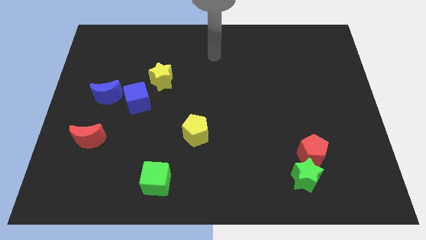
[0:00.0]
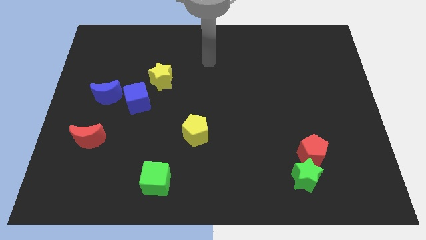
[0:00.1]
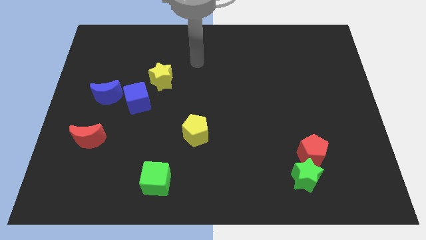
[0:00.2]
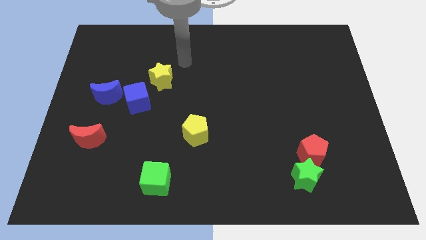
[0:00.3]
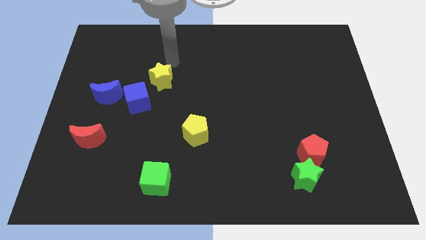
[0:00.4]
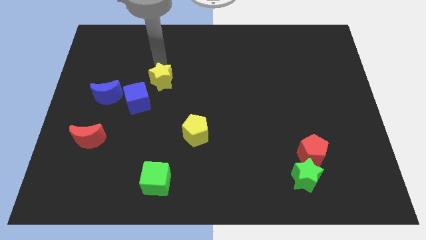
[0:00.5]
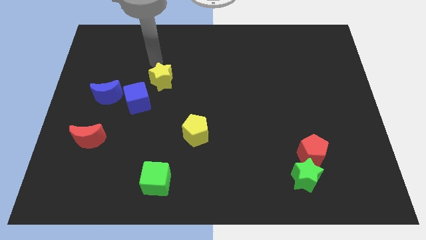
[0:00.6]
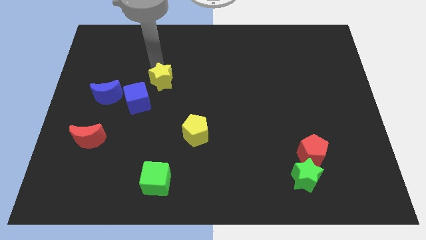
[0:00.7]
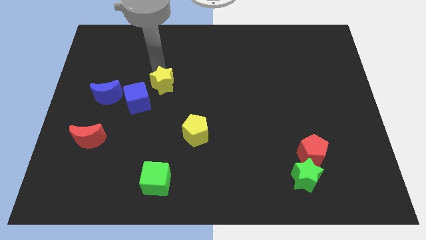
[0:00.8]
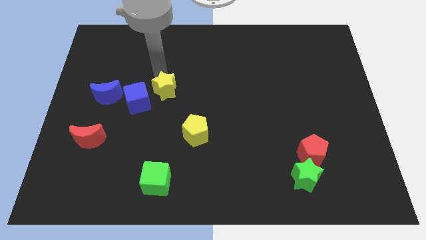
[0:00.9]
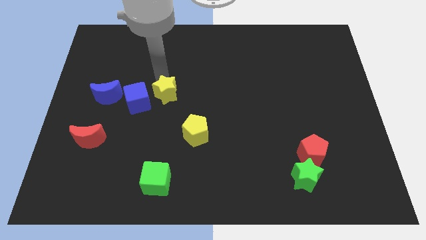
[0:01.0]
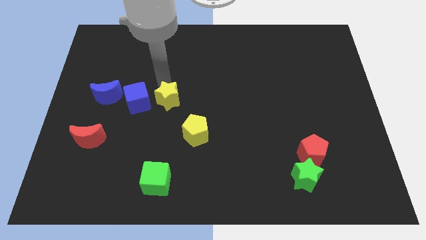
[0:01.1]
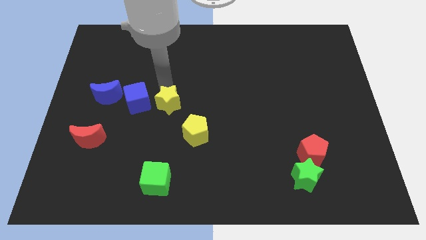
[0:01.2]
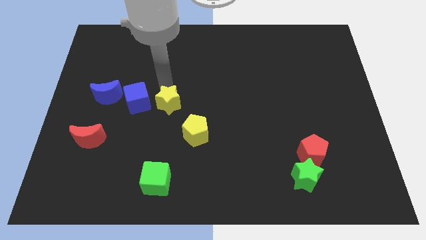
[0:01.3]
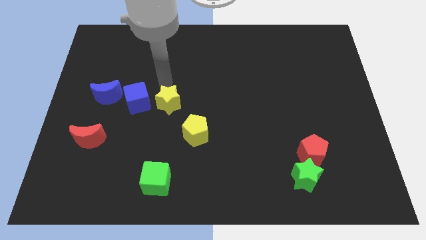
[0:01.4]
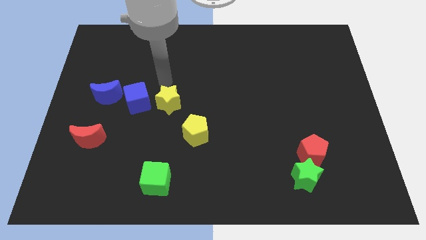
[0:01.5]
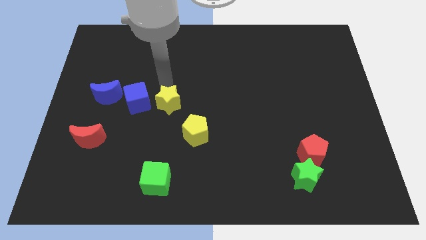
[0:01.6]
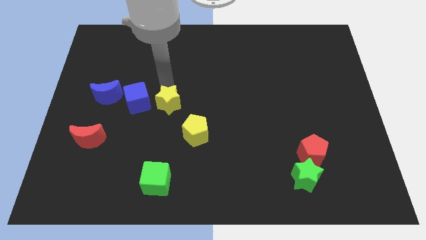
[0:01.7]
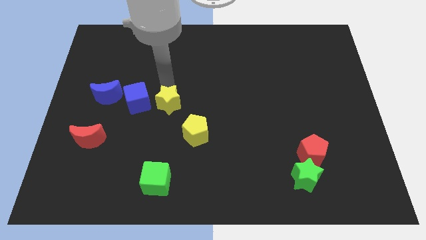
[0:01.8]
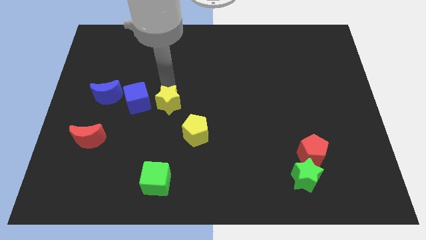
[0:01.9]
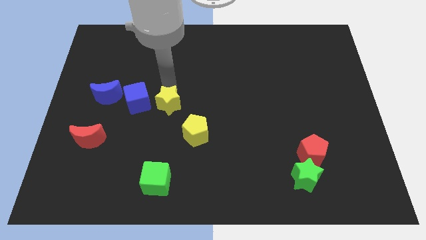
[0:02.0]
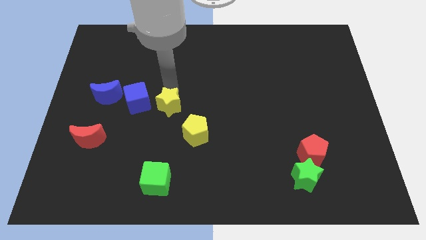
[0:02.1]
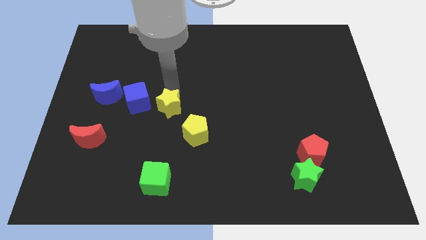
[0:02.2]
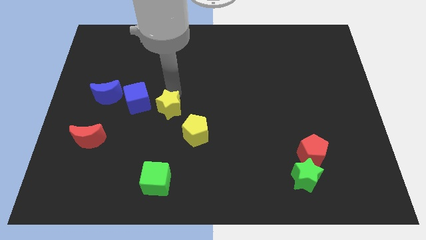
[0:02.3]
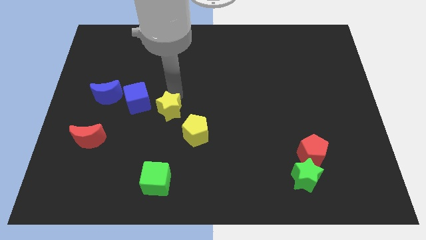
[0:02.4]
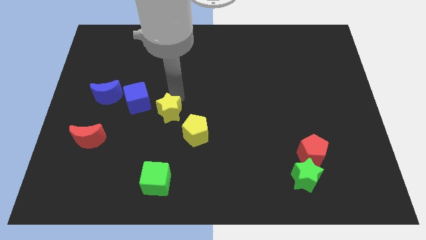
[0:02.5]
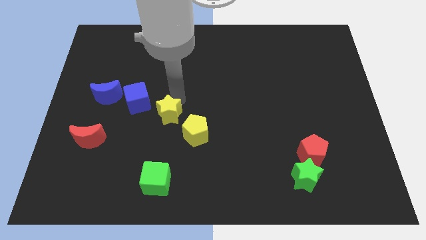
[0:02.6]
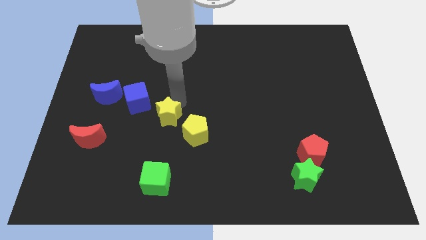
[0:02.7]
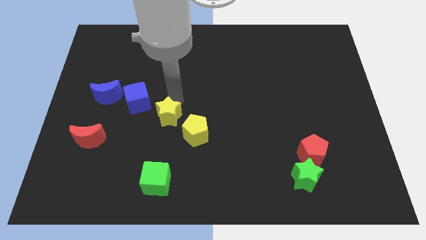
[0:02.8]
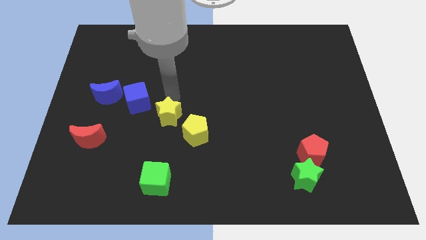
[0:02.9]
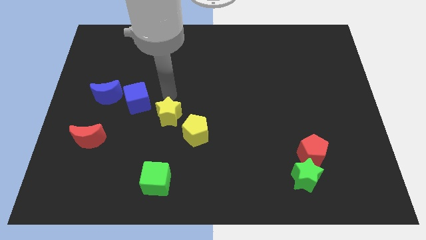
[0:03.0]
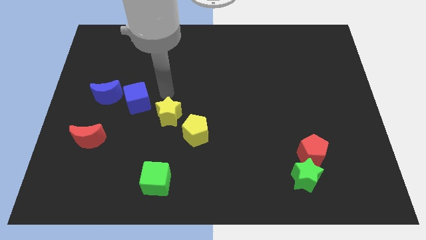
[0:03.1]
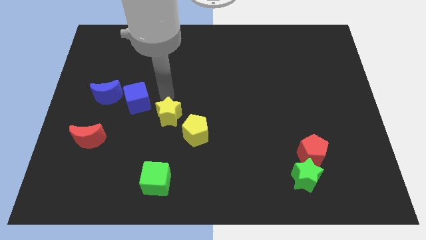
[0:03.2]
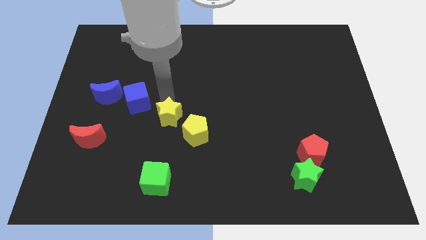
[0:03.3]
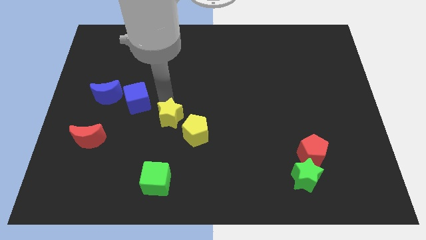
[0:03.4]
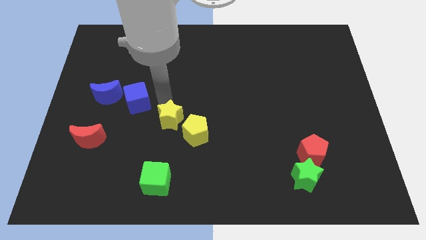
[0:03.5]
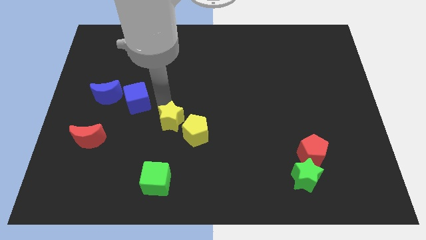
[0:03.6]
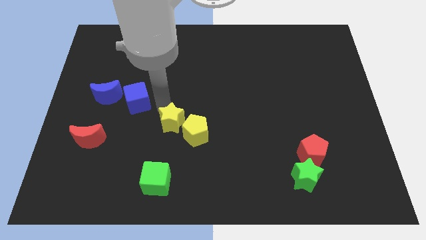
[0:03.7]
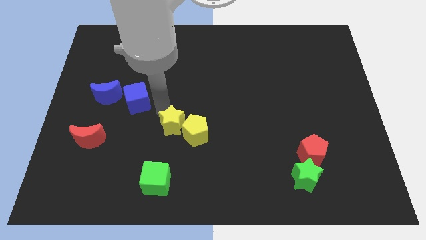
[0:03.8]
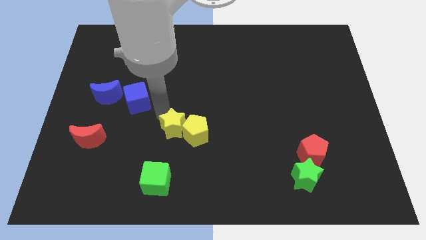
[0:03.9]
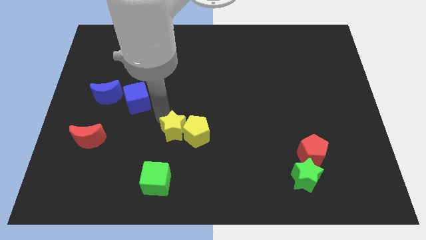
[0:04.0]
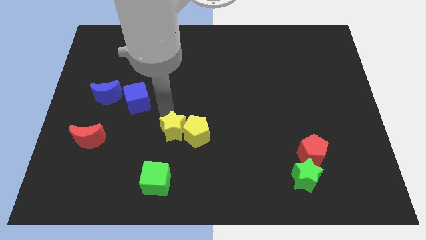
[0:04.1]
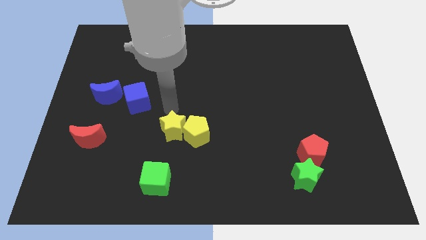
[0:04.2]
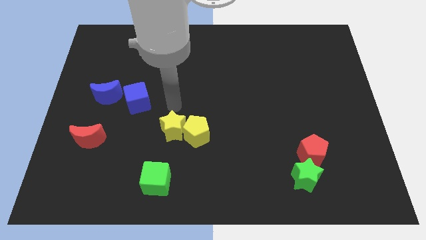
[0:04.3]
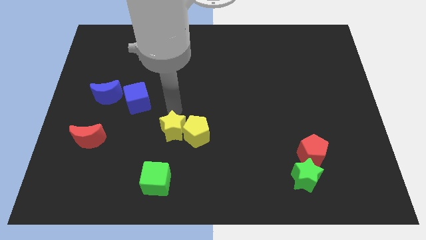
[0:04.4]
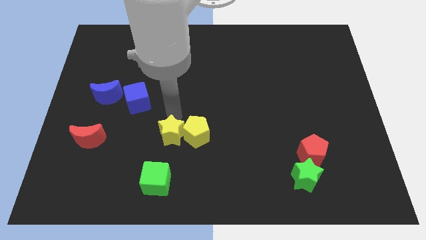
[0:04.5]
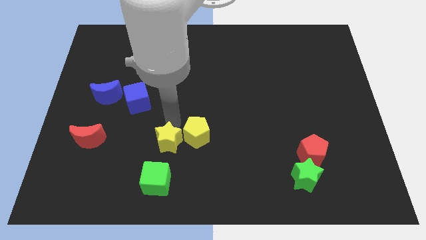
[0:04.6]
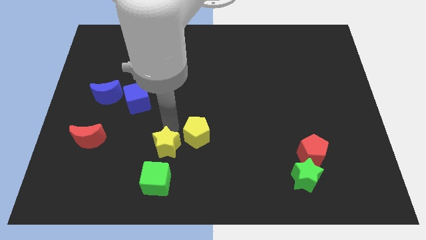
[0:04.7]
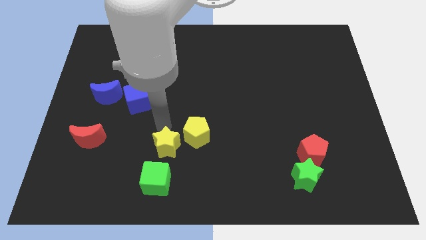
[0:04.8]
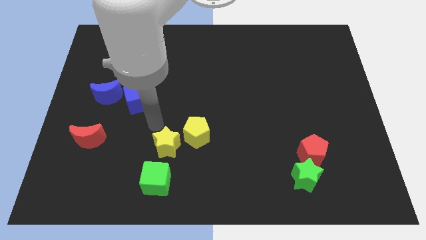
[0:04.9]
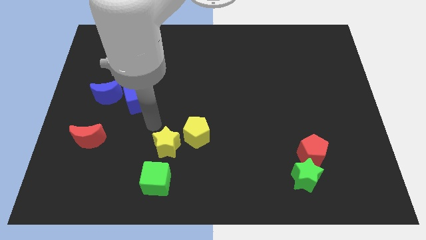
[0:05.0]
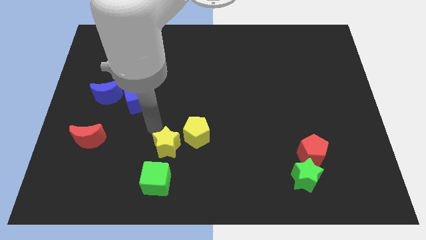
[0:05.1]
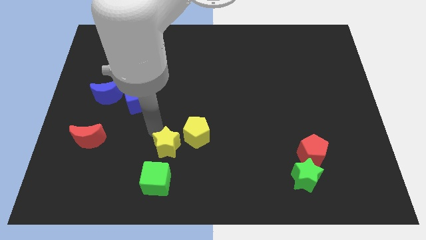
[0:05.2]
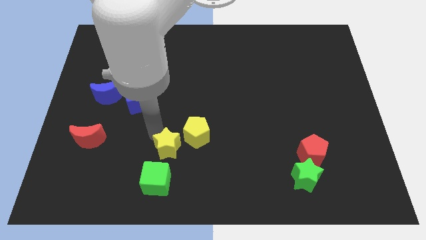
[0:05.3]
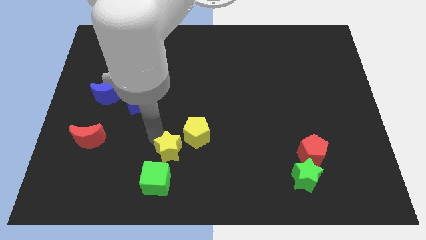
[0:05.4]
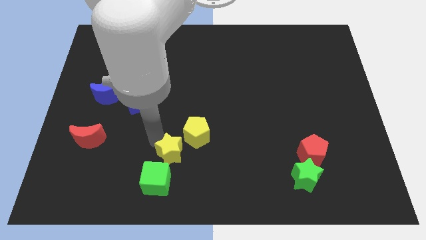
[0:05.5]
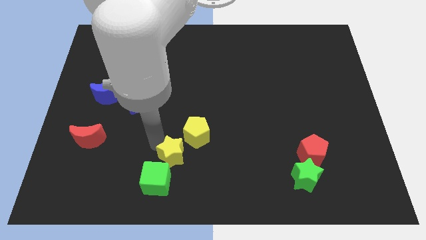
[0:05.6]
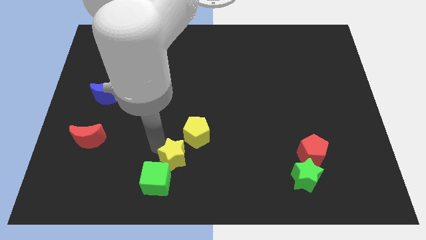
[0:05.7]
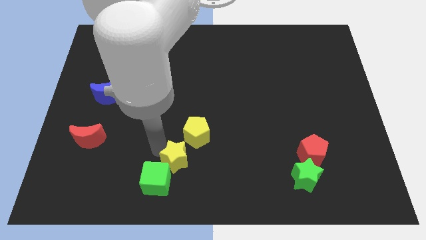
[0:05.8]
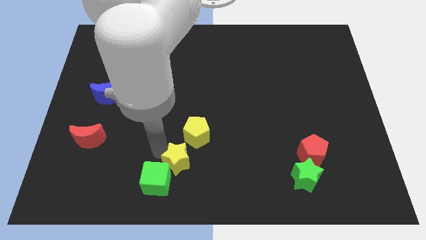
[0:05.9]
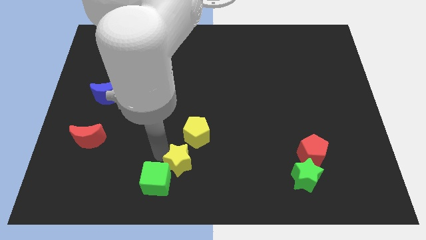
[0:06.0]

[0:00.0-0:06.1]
push the yellow star to the bottom

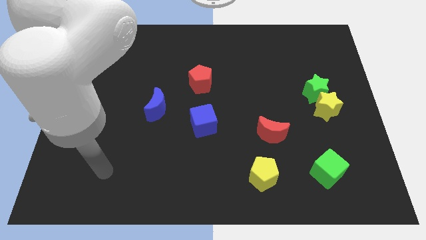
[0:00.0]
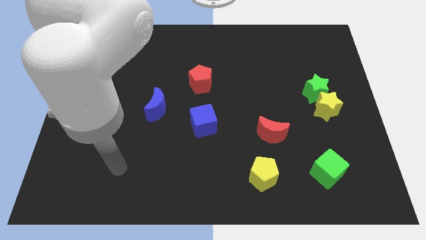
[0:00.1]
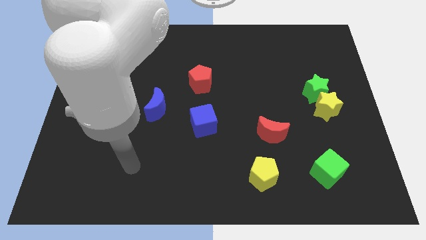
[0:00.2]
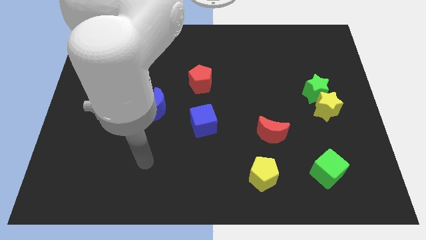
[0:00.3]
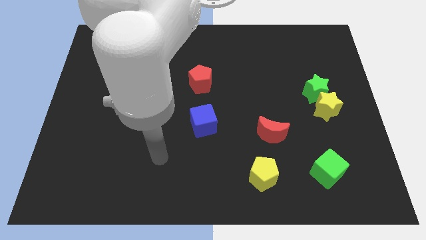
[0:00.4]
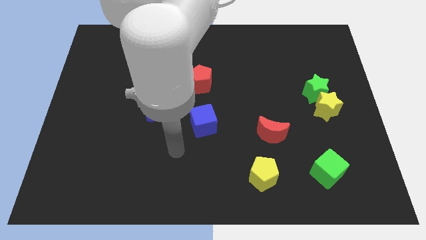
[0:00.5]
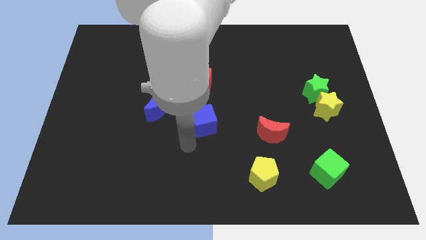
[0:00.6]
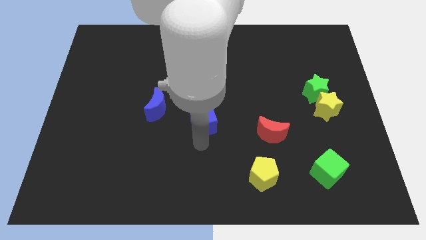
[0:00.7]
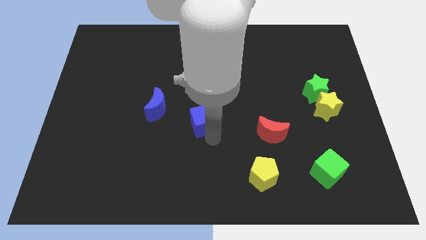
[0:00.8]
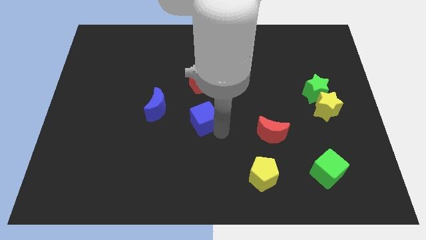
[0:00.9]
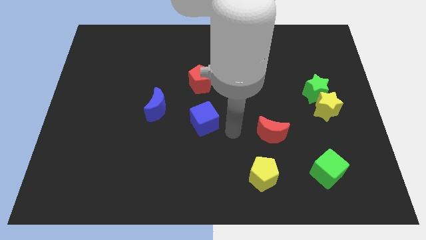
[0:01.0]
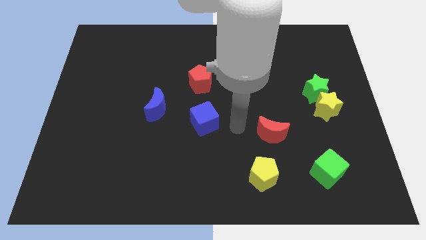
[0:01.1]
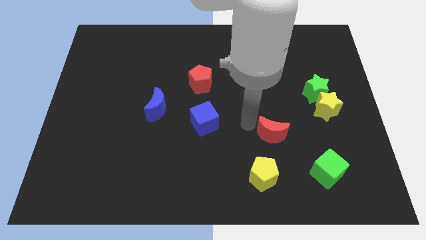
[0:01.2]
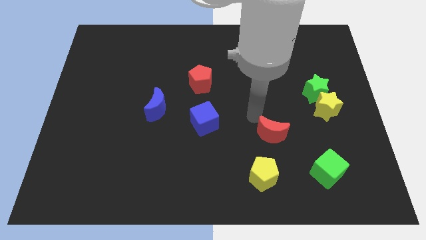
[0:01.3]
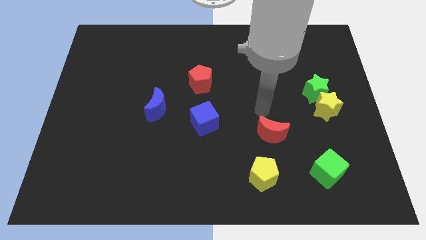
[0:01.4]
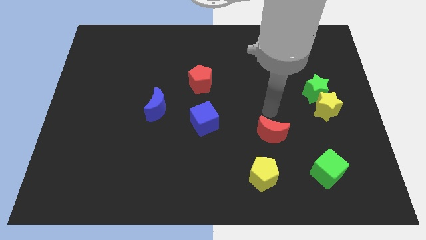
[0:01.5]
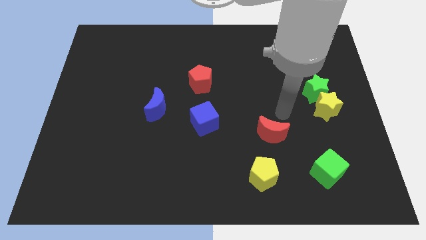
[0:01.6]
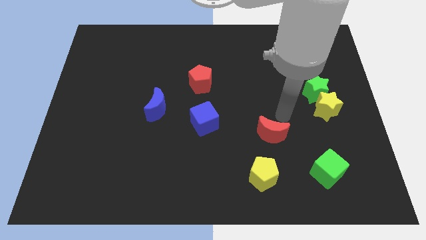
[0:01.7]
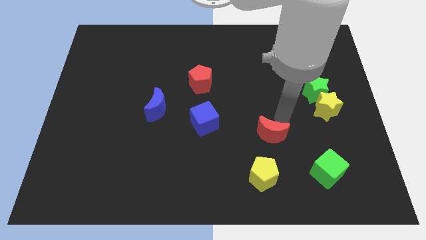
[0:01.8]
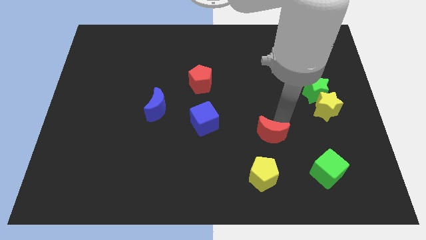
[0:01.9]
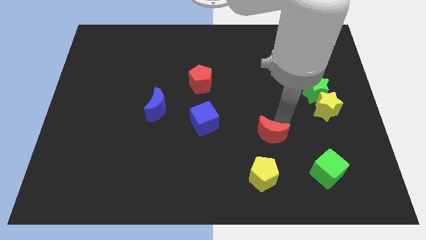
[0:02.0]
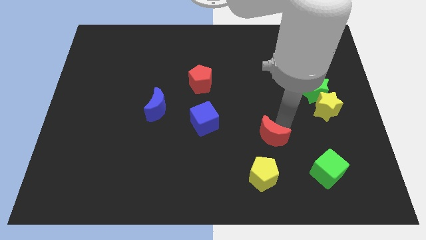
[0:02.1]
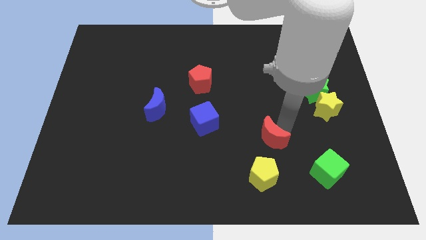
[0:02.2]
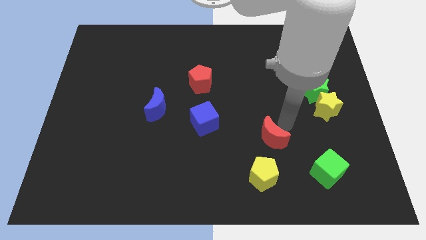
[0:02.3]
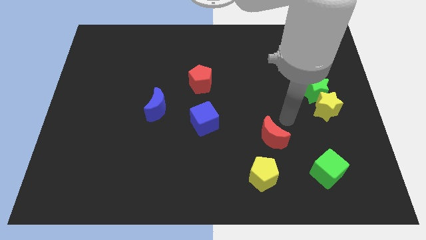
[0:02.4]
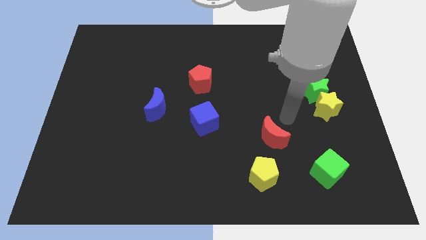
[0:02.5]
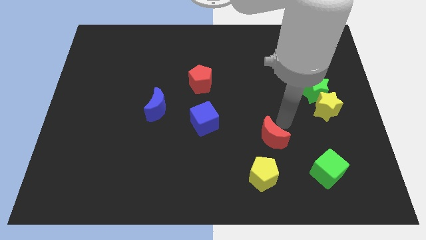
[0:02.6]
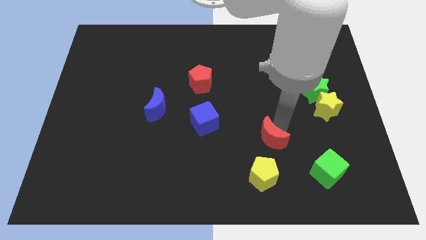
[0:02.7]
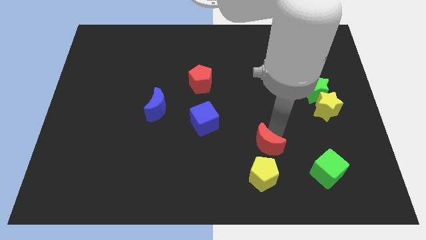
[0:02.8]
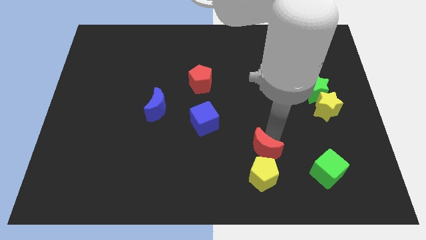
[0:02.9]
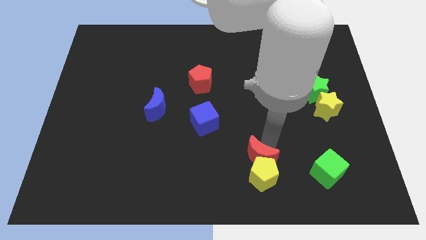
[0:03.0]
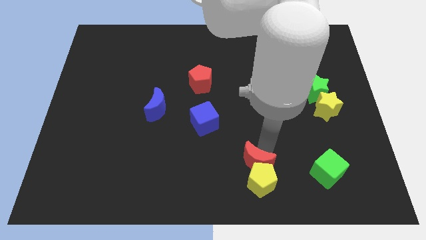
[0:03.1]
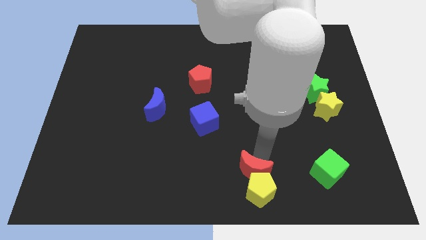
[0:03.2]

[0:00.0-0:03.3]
move the red moon to the bottom
